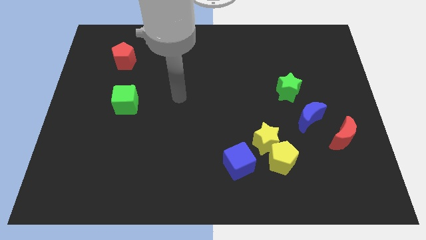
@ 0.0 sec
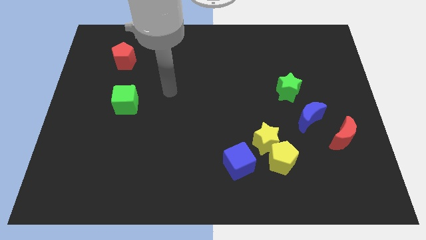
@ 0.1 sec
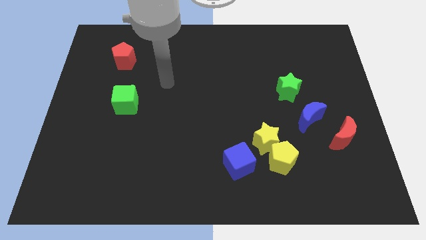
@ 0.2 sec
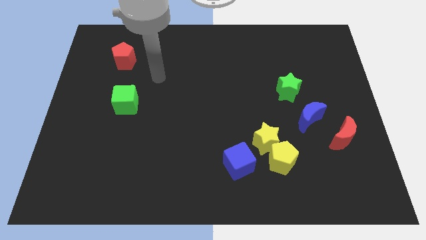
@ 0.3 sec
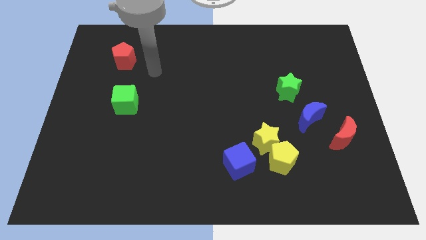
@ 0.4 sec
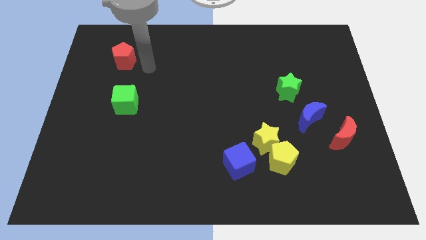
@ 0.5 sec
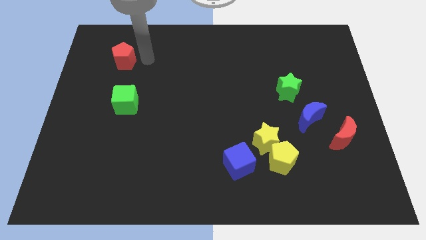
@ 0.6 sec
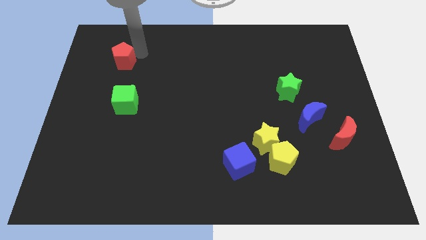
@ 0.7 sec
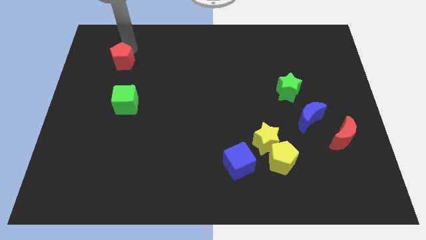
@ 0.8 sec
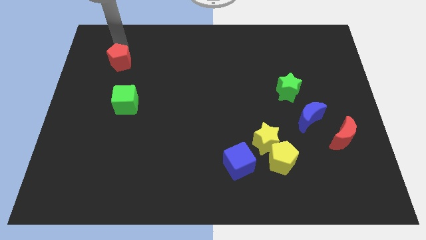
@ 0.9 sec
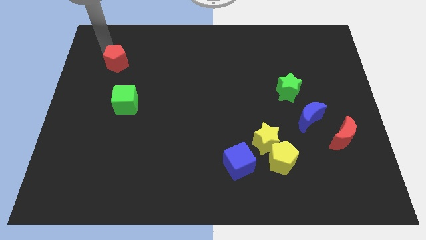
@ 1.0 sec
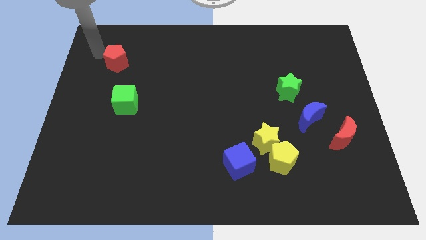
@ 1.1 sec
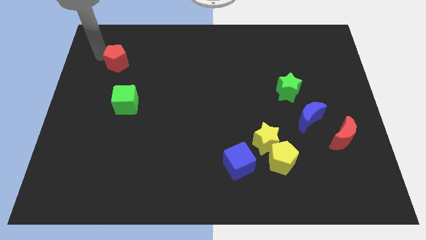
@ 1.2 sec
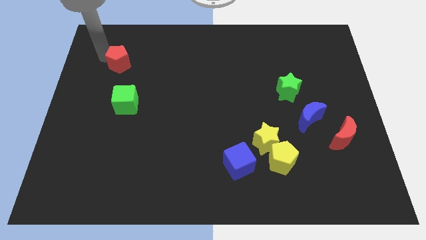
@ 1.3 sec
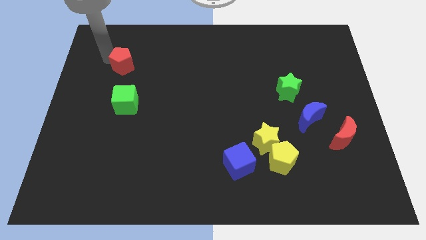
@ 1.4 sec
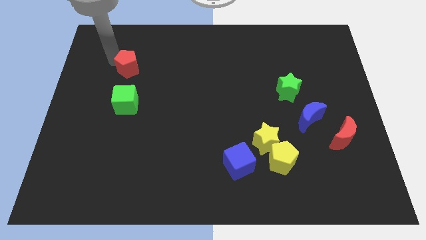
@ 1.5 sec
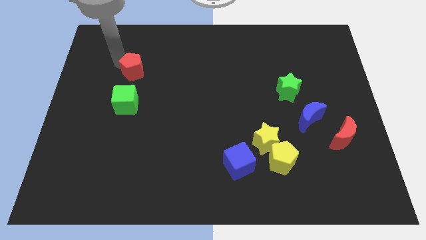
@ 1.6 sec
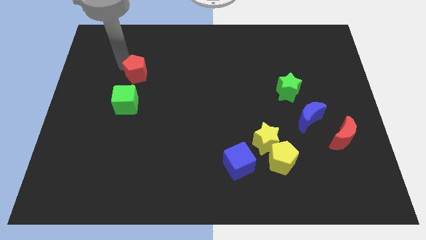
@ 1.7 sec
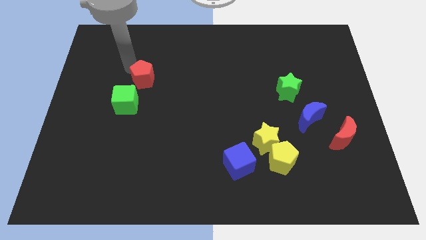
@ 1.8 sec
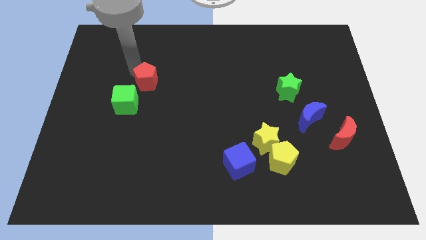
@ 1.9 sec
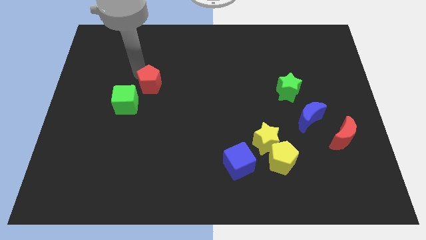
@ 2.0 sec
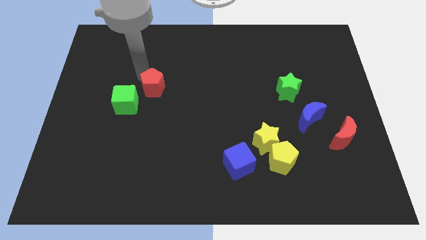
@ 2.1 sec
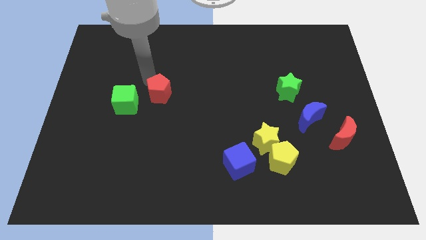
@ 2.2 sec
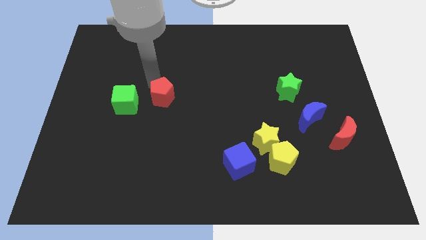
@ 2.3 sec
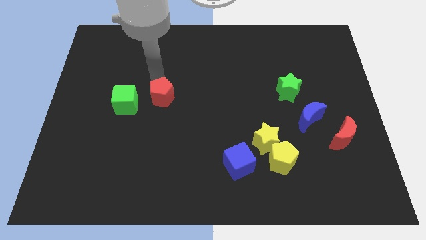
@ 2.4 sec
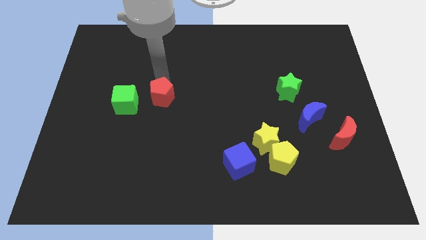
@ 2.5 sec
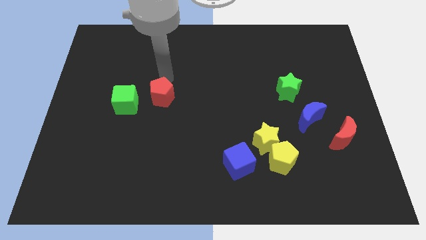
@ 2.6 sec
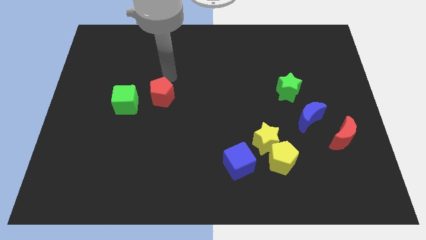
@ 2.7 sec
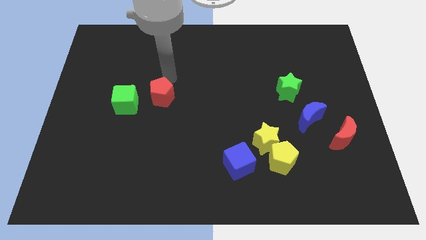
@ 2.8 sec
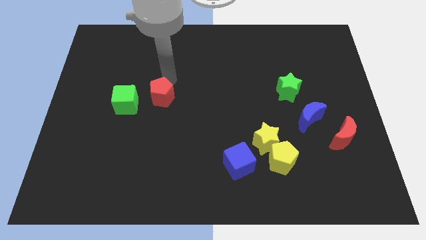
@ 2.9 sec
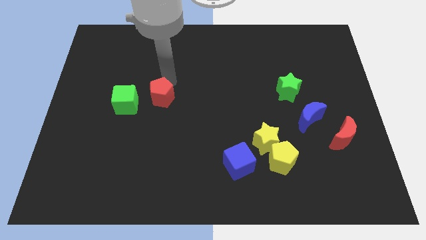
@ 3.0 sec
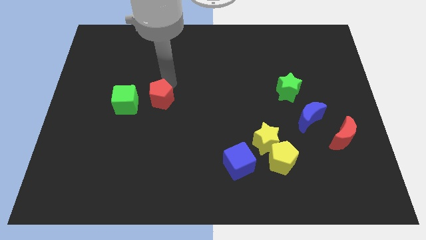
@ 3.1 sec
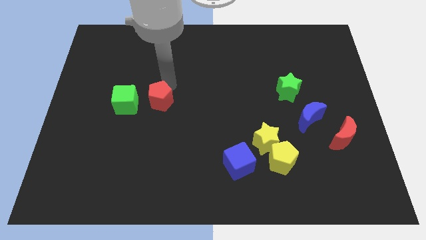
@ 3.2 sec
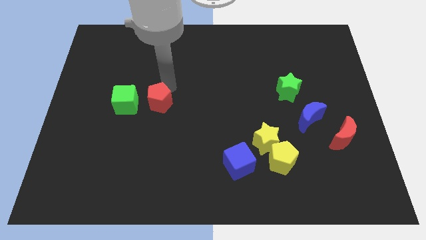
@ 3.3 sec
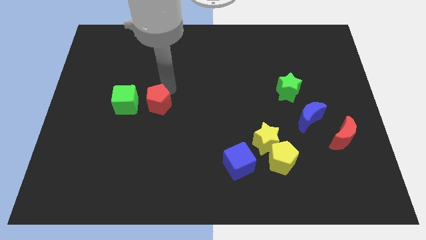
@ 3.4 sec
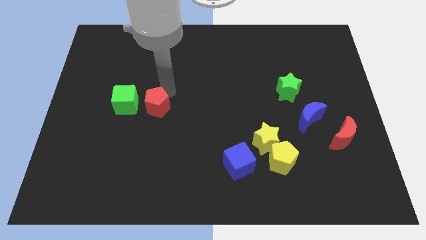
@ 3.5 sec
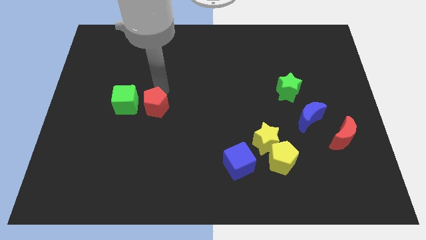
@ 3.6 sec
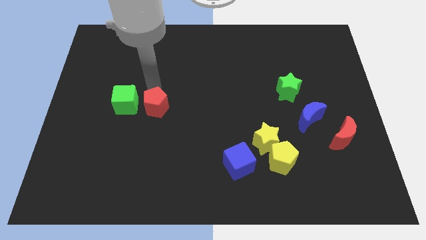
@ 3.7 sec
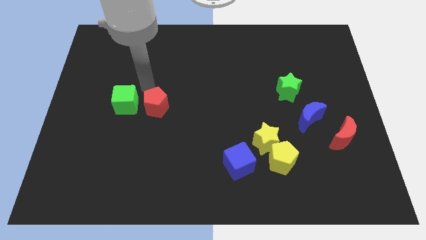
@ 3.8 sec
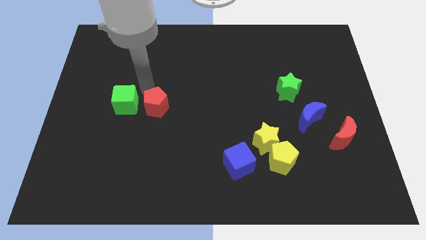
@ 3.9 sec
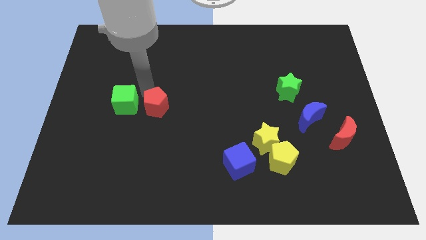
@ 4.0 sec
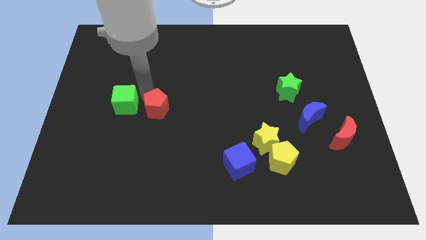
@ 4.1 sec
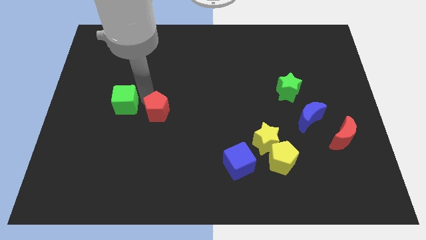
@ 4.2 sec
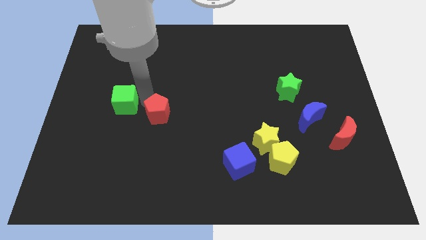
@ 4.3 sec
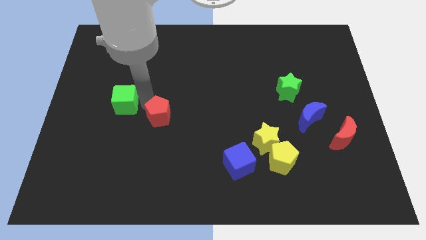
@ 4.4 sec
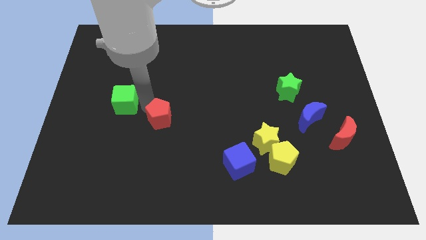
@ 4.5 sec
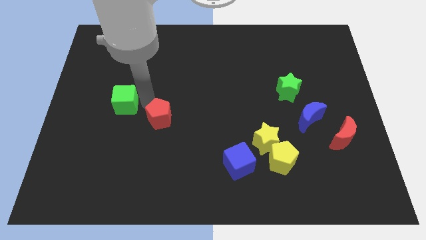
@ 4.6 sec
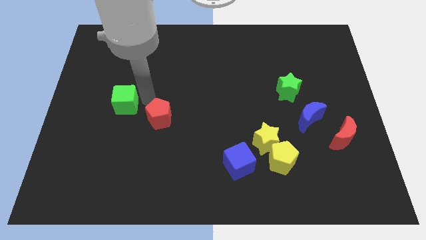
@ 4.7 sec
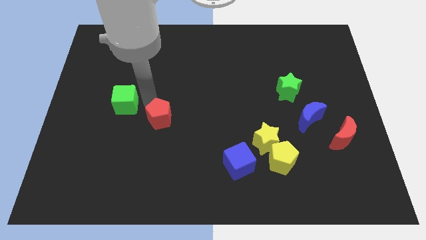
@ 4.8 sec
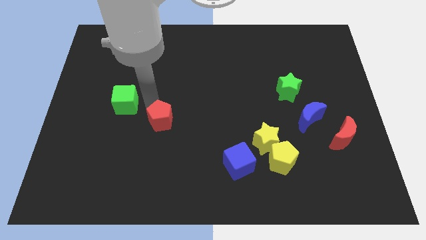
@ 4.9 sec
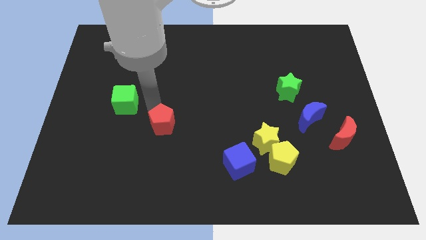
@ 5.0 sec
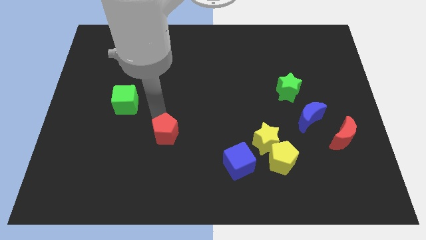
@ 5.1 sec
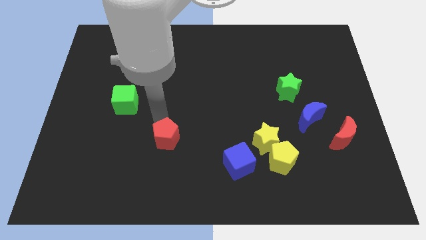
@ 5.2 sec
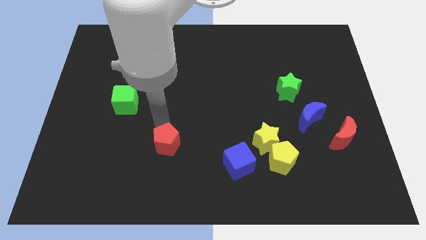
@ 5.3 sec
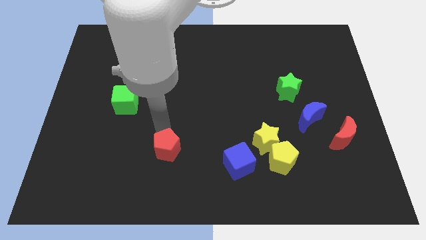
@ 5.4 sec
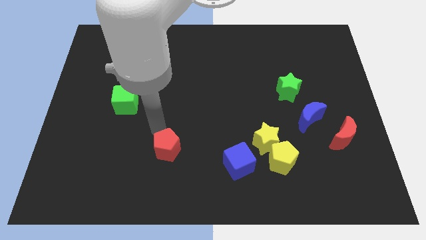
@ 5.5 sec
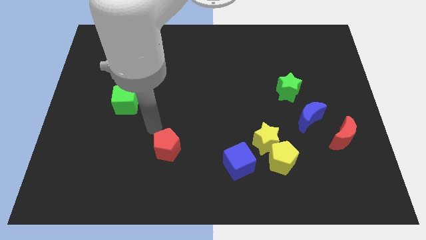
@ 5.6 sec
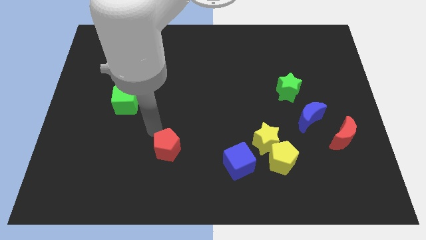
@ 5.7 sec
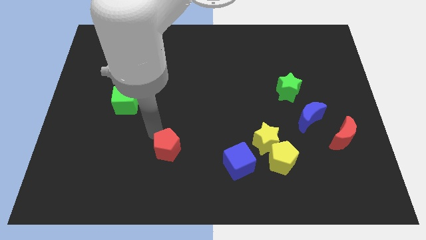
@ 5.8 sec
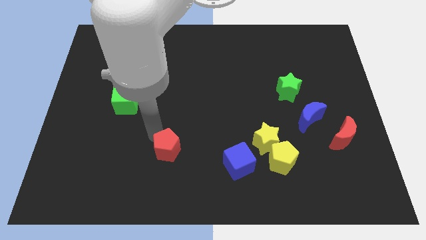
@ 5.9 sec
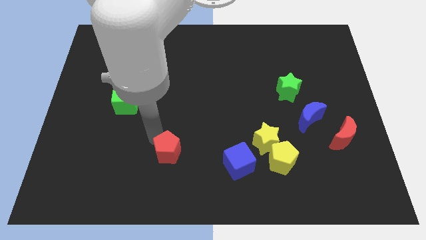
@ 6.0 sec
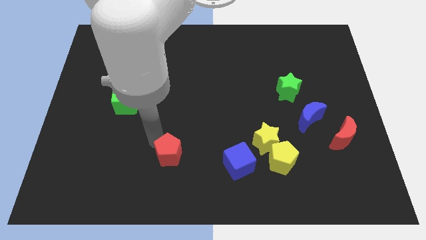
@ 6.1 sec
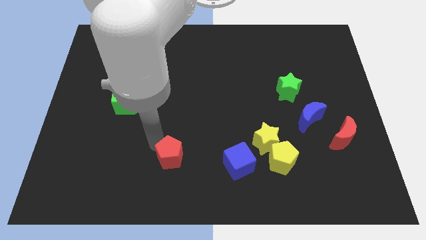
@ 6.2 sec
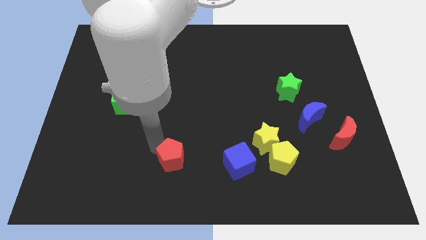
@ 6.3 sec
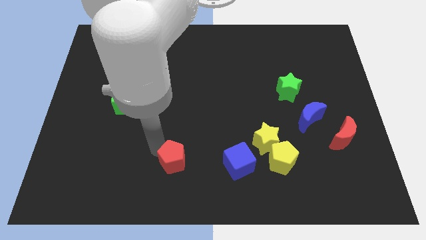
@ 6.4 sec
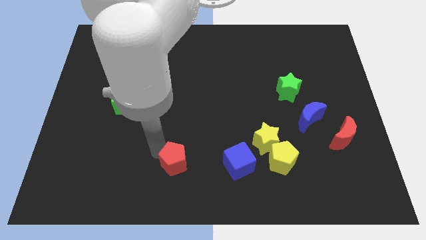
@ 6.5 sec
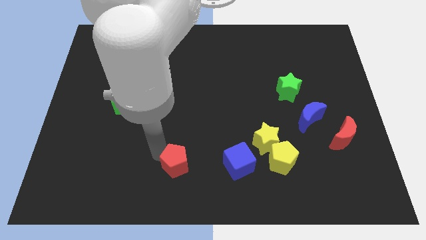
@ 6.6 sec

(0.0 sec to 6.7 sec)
put the red pentagon to the bottom side
